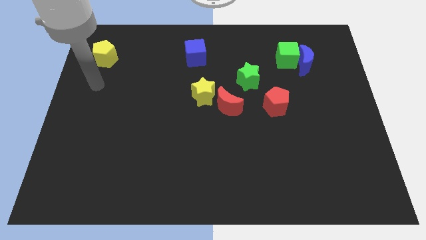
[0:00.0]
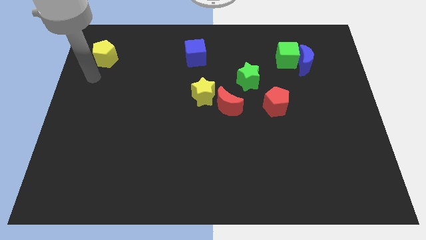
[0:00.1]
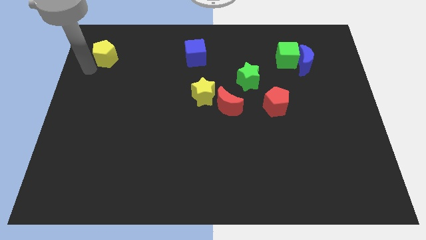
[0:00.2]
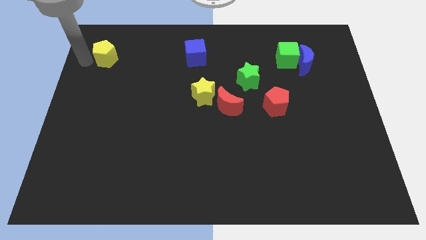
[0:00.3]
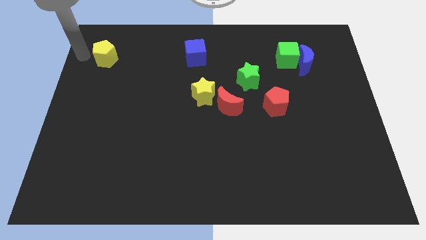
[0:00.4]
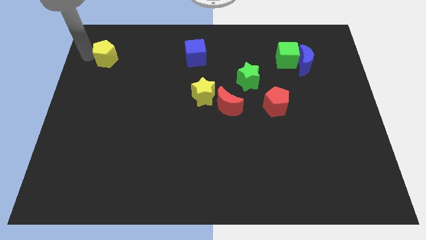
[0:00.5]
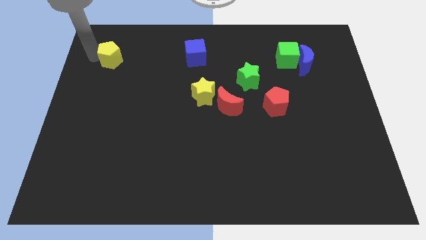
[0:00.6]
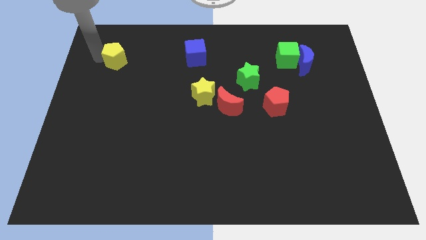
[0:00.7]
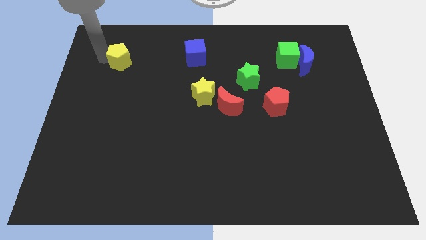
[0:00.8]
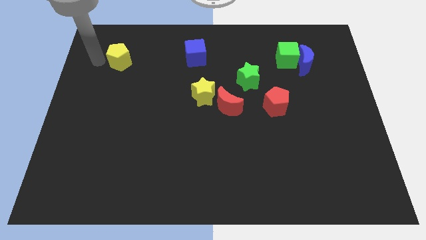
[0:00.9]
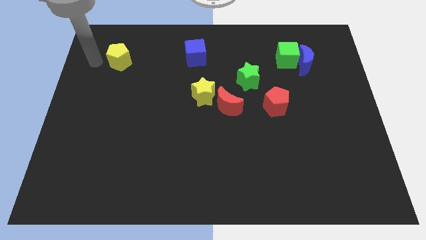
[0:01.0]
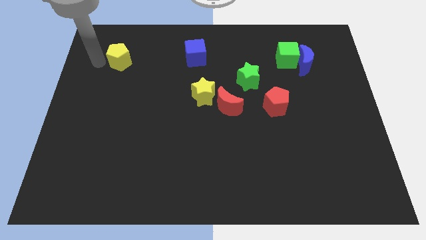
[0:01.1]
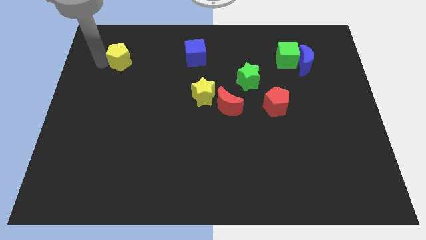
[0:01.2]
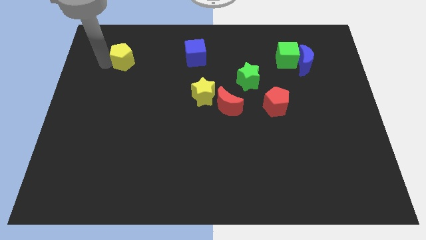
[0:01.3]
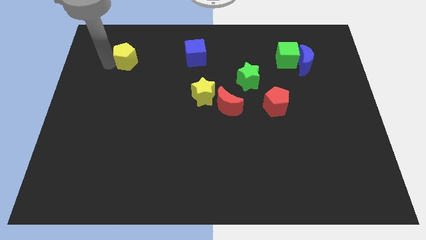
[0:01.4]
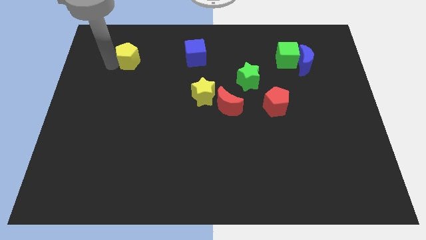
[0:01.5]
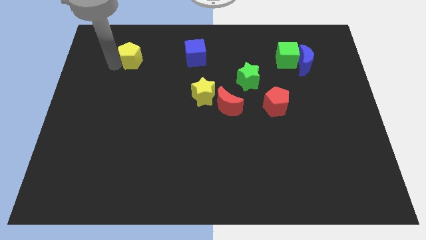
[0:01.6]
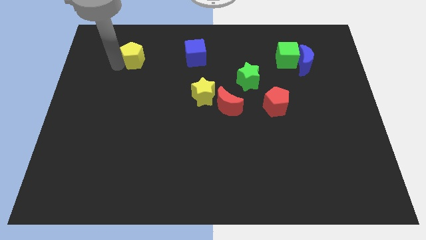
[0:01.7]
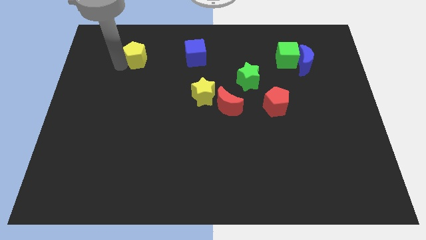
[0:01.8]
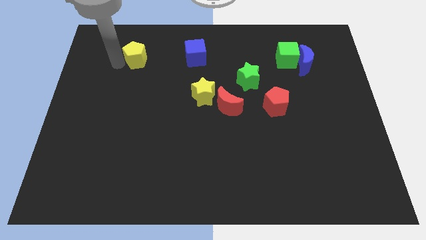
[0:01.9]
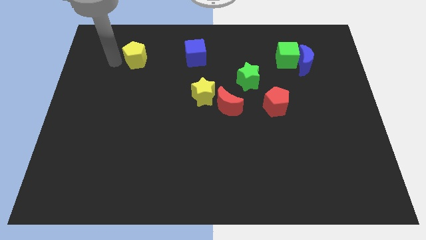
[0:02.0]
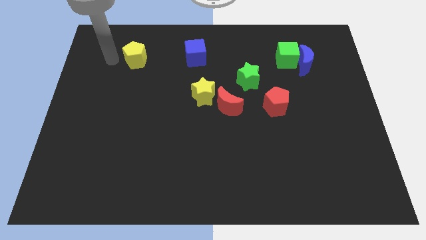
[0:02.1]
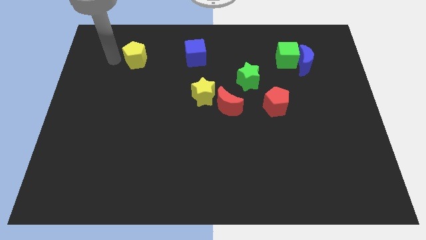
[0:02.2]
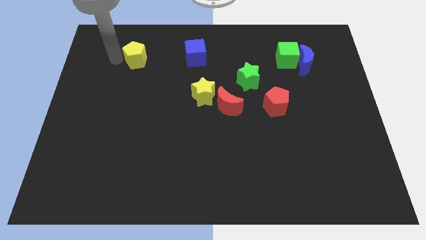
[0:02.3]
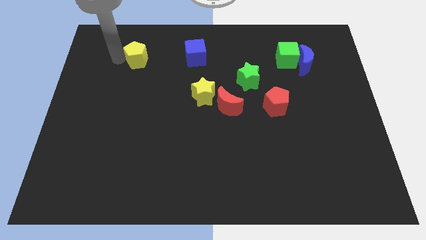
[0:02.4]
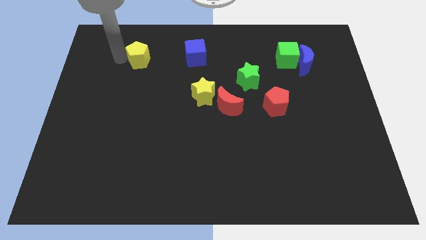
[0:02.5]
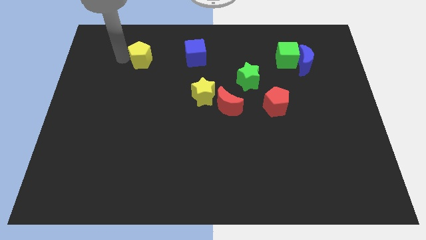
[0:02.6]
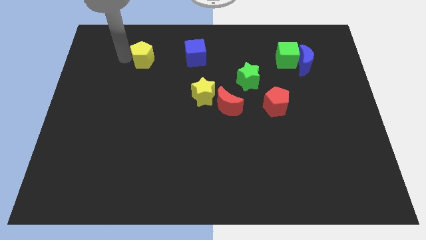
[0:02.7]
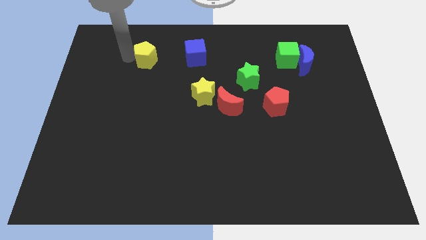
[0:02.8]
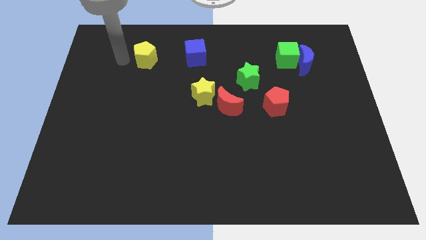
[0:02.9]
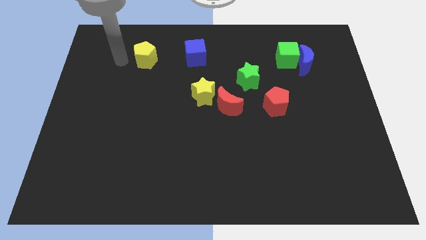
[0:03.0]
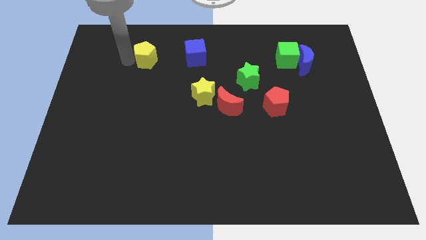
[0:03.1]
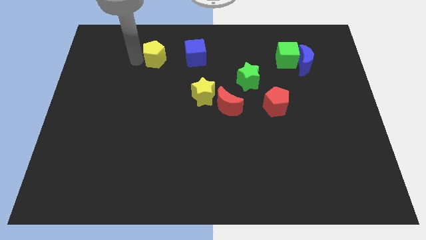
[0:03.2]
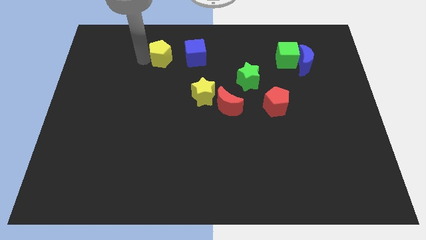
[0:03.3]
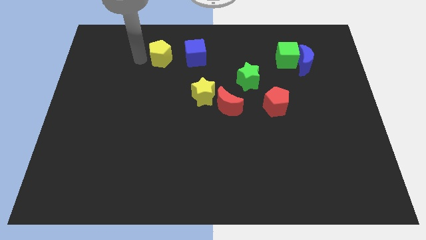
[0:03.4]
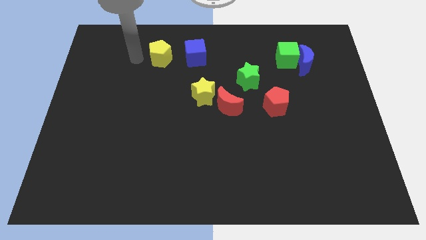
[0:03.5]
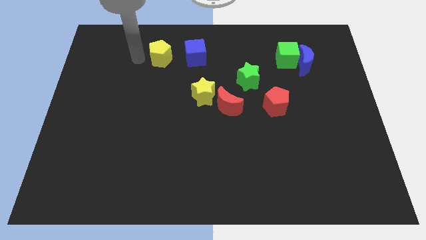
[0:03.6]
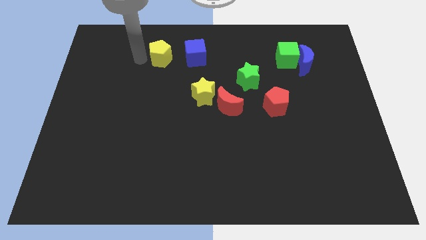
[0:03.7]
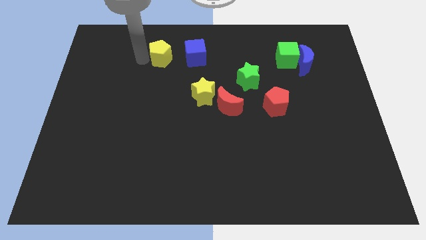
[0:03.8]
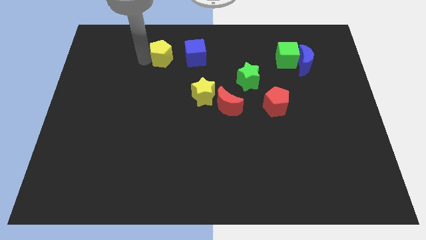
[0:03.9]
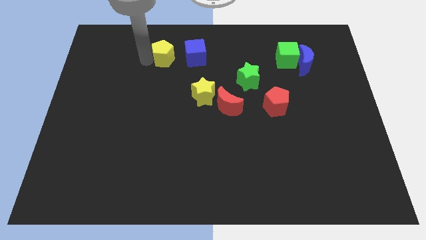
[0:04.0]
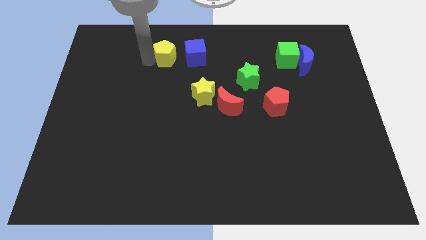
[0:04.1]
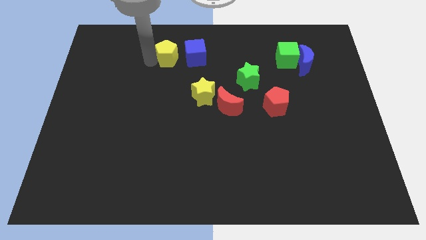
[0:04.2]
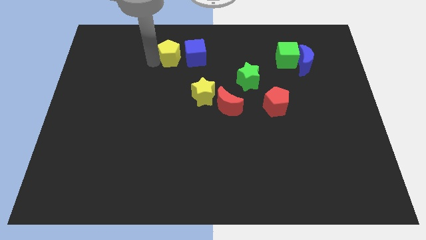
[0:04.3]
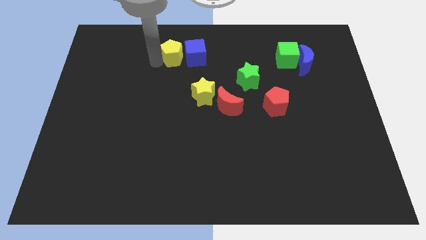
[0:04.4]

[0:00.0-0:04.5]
put the yellow pentagon towards the blue cube

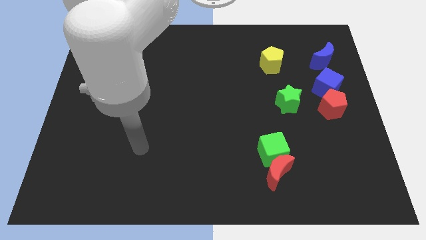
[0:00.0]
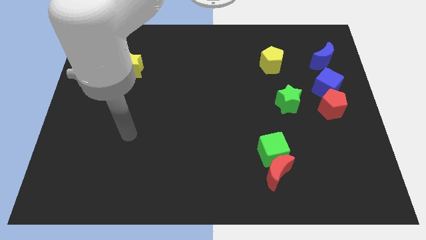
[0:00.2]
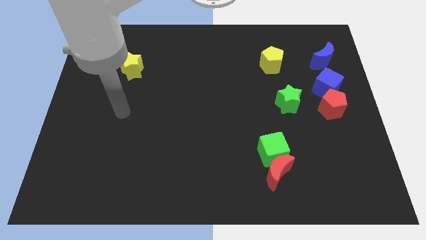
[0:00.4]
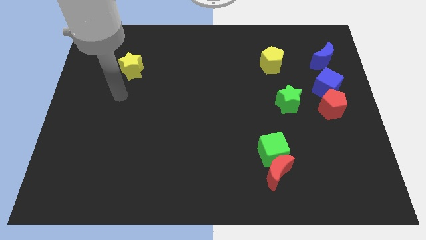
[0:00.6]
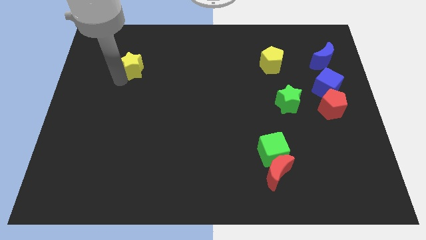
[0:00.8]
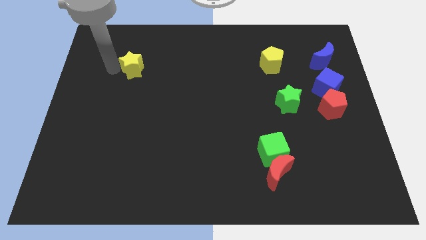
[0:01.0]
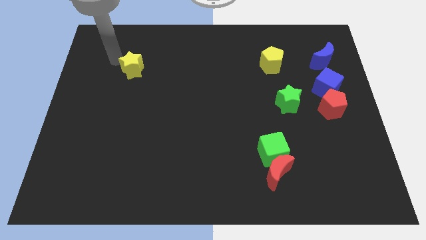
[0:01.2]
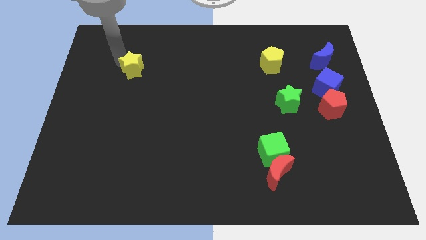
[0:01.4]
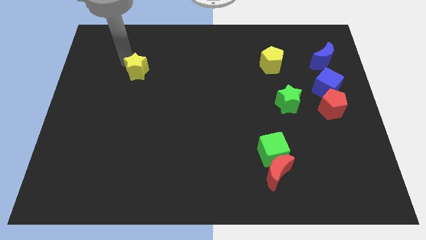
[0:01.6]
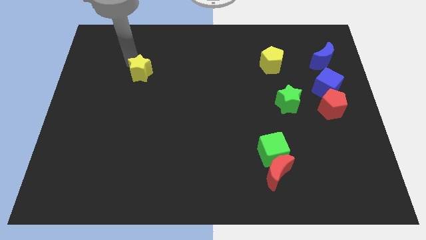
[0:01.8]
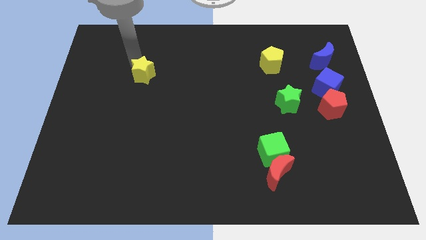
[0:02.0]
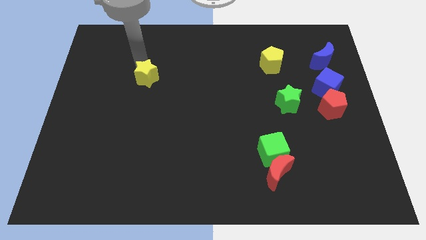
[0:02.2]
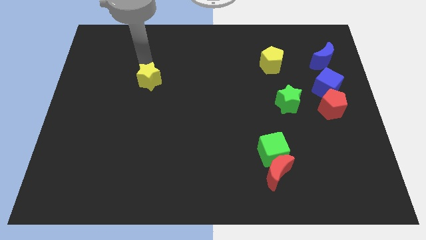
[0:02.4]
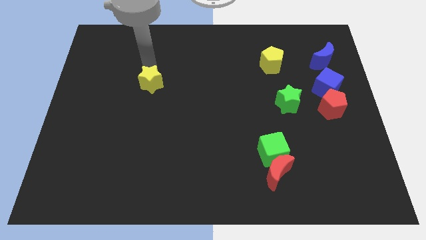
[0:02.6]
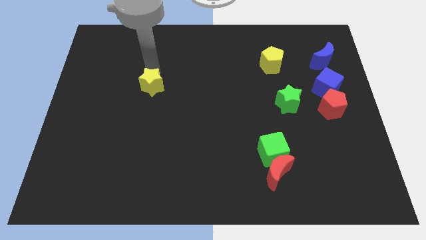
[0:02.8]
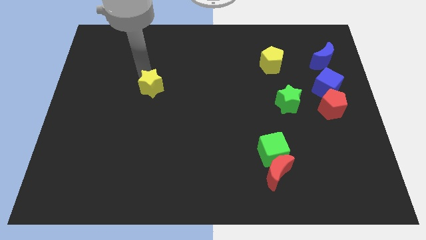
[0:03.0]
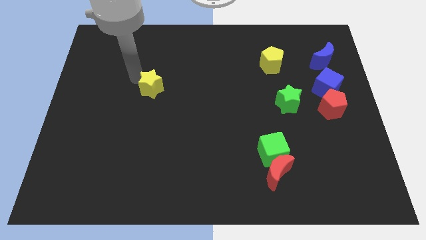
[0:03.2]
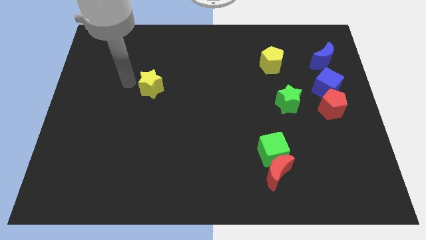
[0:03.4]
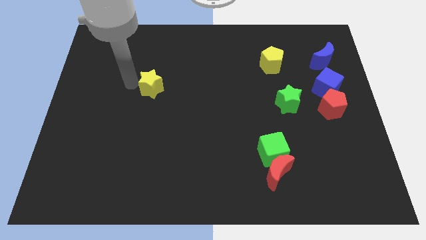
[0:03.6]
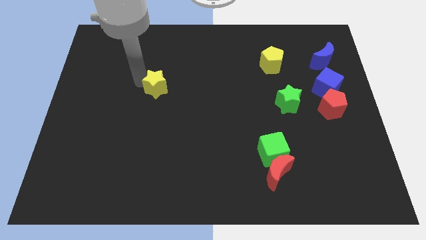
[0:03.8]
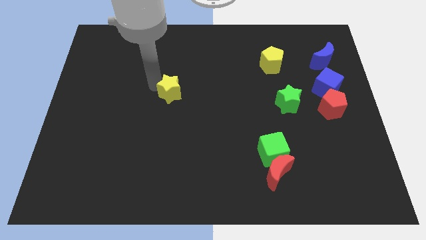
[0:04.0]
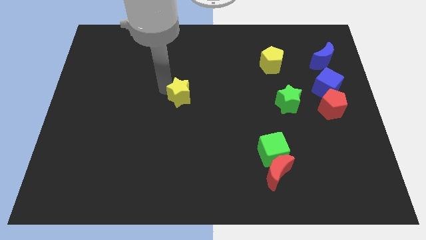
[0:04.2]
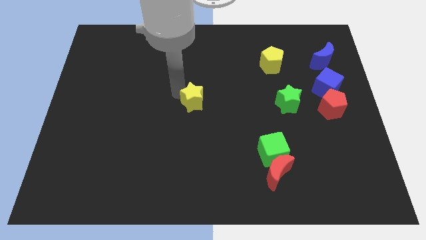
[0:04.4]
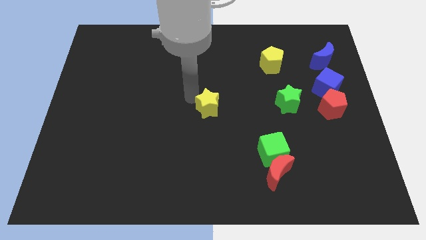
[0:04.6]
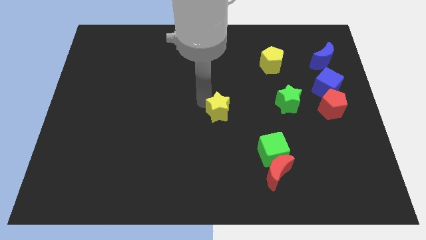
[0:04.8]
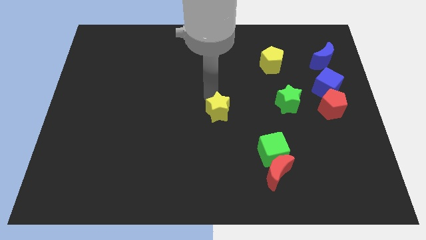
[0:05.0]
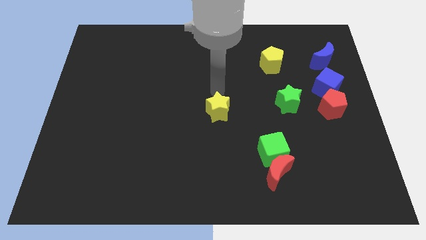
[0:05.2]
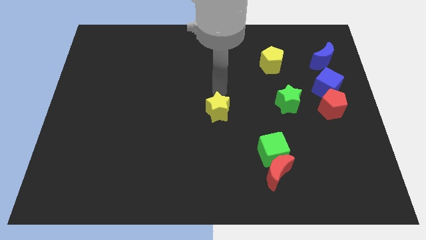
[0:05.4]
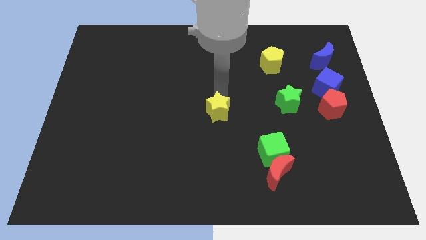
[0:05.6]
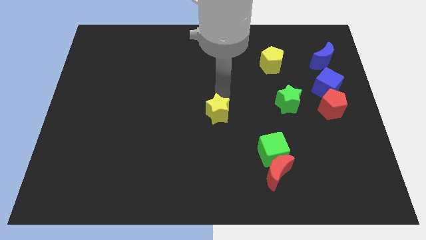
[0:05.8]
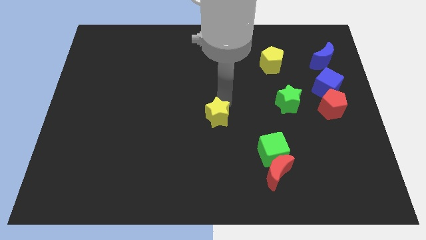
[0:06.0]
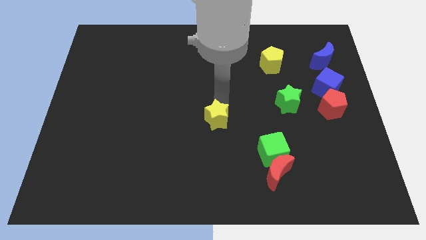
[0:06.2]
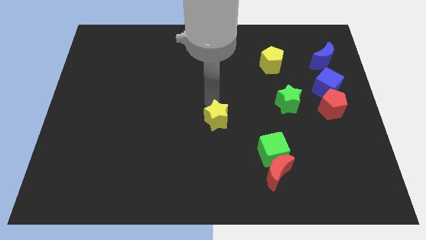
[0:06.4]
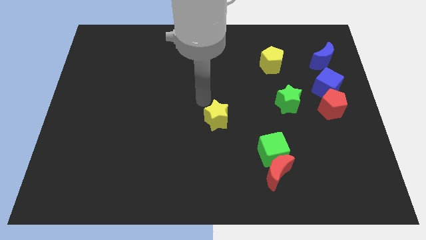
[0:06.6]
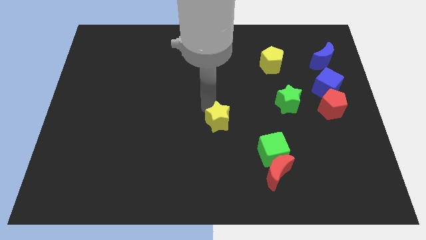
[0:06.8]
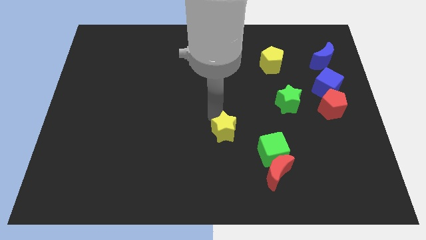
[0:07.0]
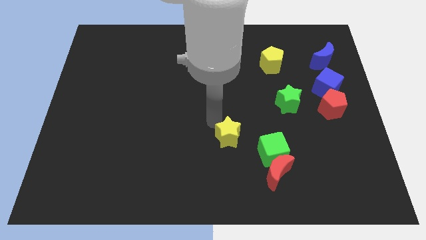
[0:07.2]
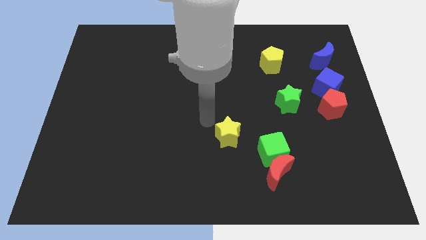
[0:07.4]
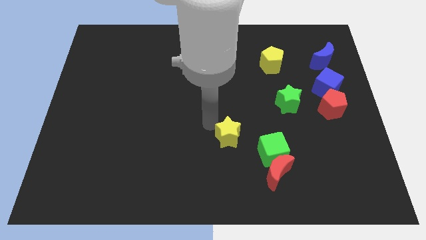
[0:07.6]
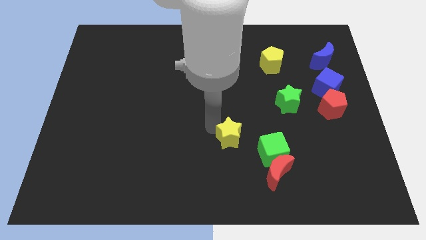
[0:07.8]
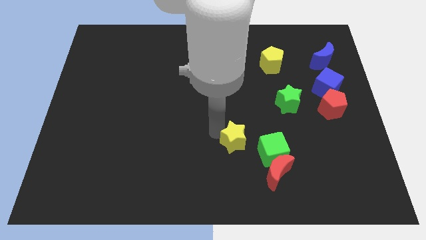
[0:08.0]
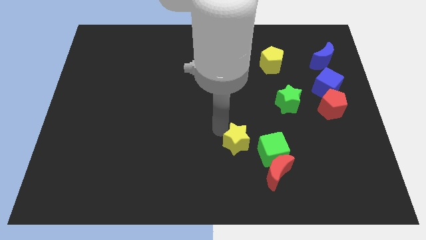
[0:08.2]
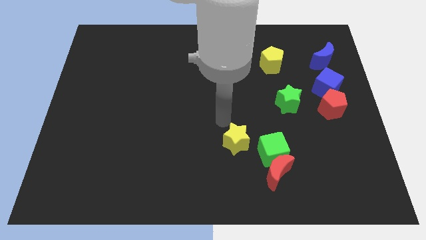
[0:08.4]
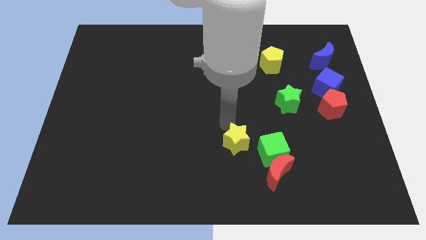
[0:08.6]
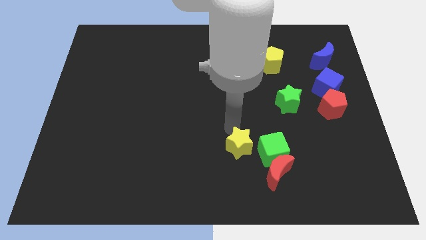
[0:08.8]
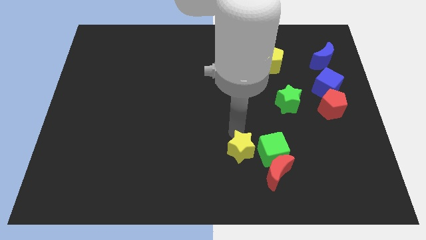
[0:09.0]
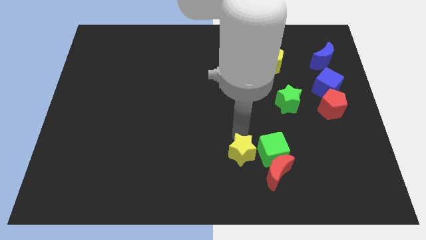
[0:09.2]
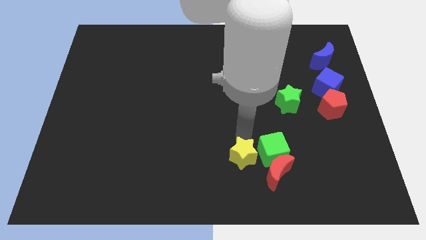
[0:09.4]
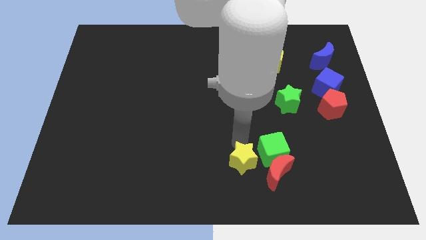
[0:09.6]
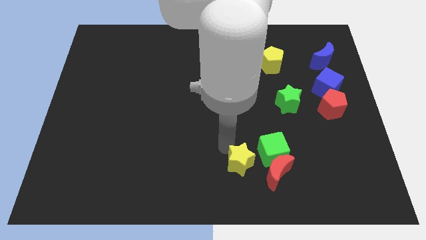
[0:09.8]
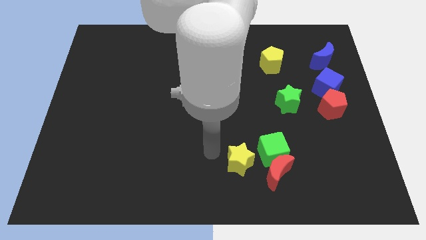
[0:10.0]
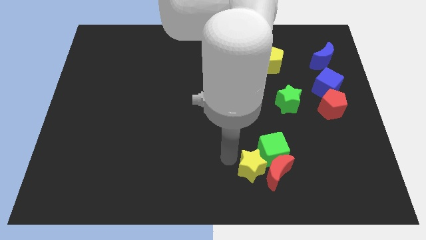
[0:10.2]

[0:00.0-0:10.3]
move the yellow star next to the red moon
